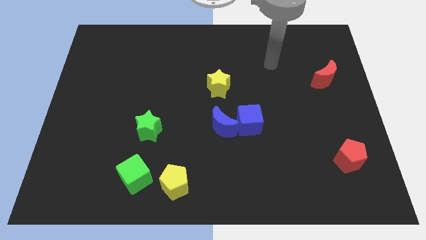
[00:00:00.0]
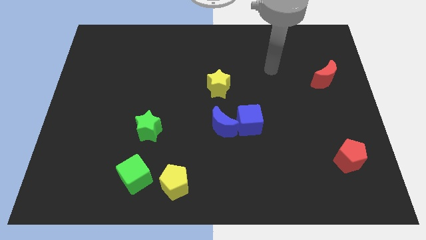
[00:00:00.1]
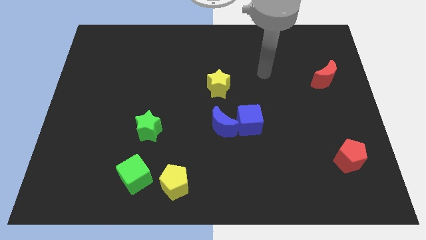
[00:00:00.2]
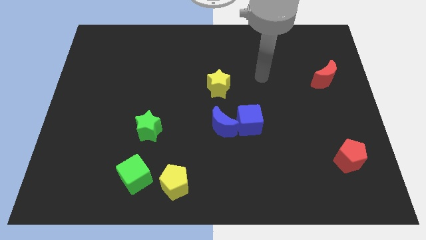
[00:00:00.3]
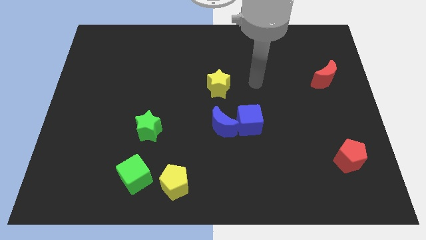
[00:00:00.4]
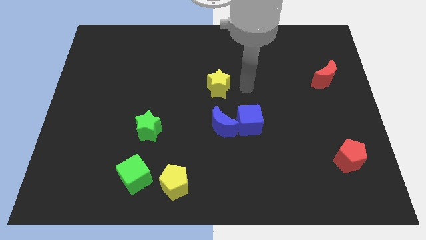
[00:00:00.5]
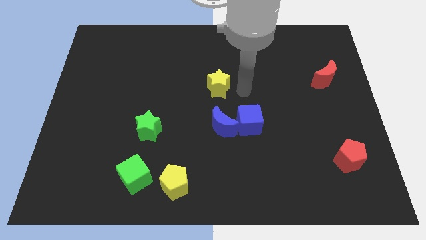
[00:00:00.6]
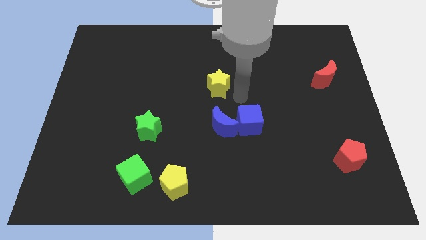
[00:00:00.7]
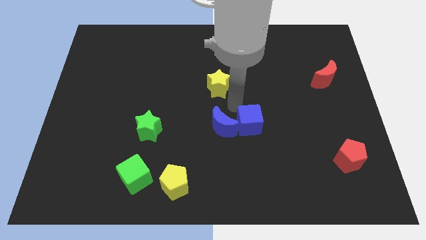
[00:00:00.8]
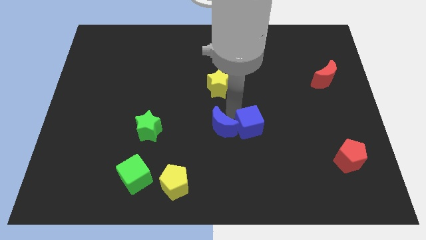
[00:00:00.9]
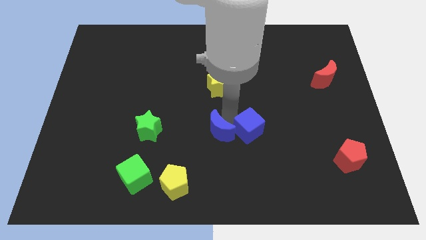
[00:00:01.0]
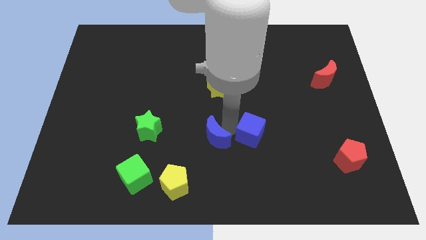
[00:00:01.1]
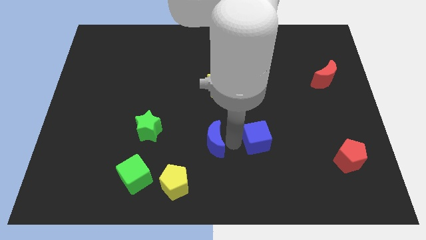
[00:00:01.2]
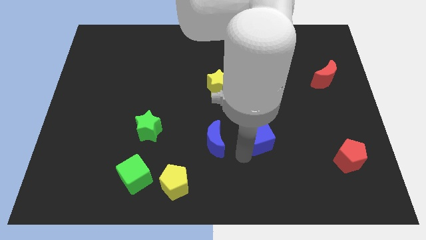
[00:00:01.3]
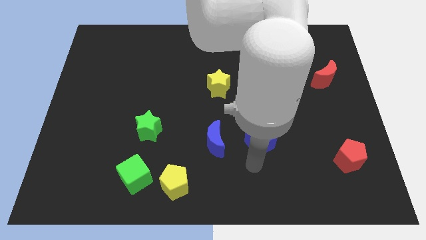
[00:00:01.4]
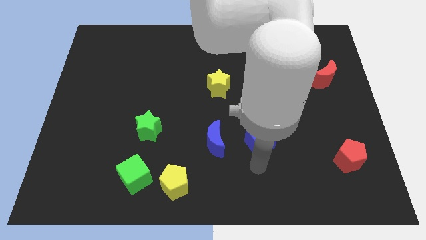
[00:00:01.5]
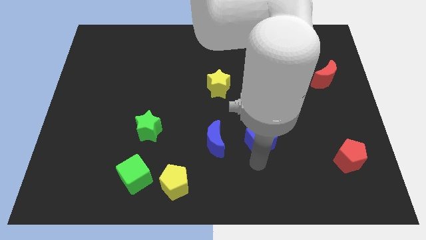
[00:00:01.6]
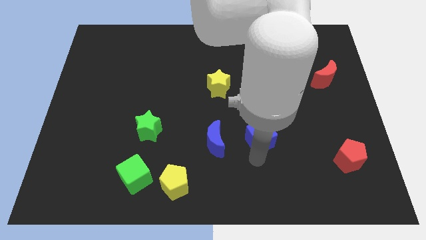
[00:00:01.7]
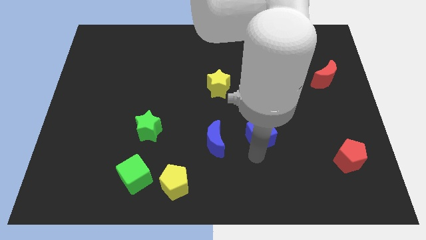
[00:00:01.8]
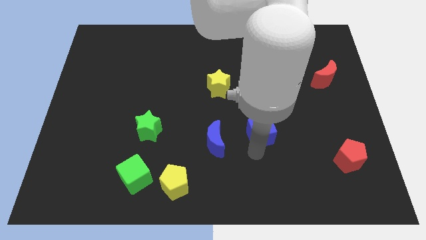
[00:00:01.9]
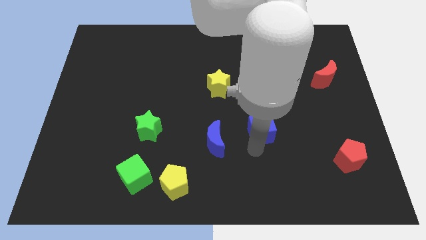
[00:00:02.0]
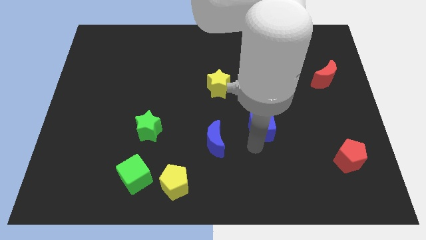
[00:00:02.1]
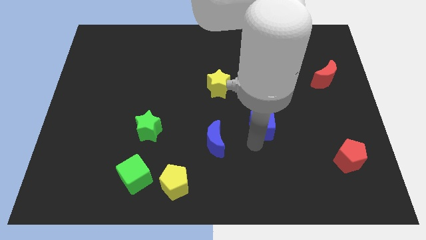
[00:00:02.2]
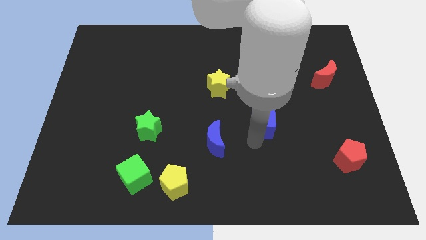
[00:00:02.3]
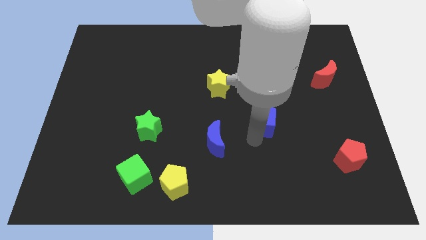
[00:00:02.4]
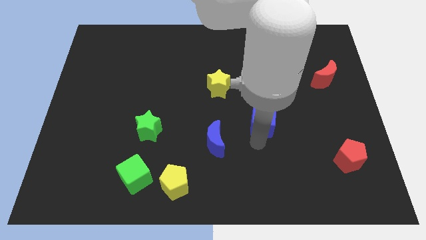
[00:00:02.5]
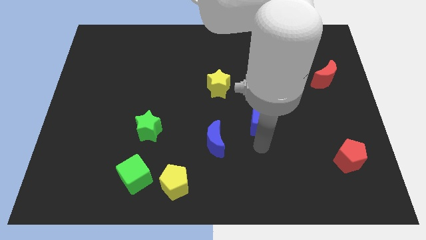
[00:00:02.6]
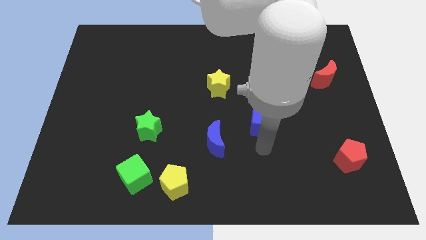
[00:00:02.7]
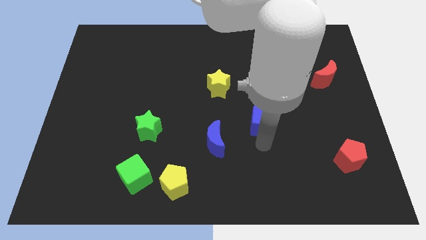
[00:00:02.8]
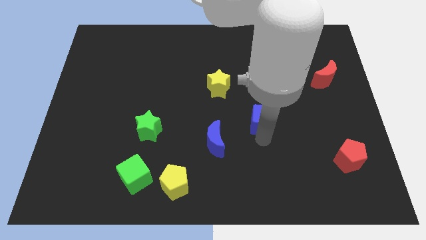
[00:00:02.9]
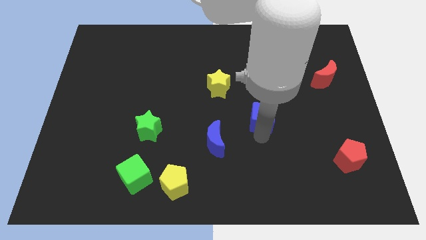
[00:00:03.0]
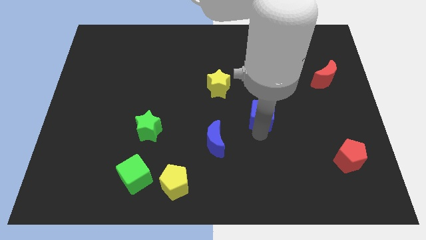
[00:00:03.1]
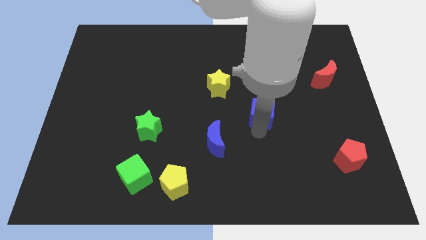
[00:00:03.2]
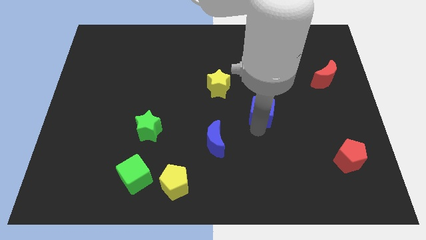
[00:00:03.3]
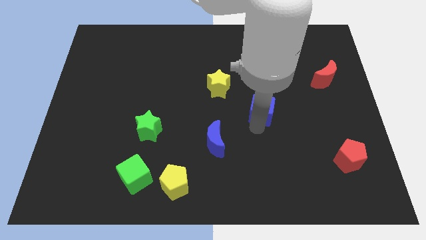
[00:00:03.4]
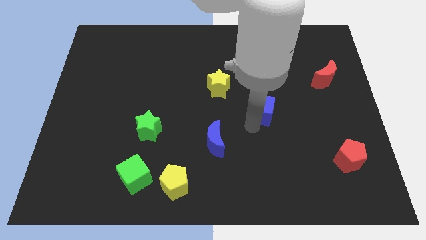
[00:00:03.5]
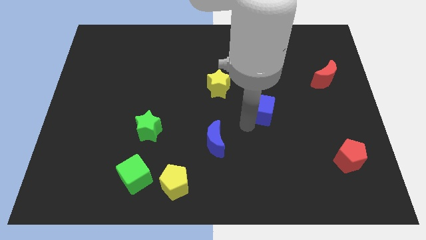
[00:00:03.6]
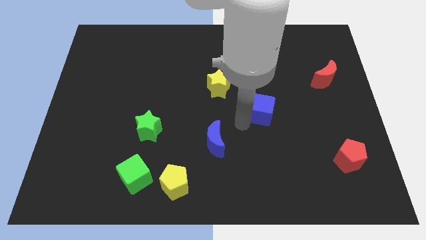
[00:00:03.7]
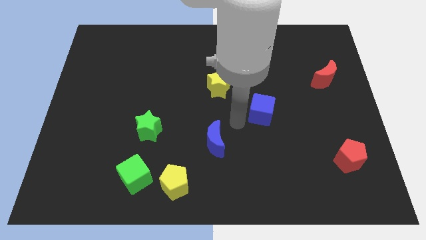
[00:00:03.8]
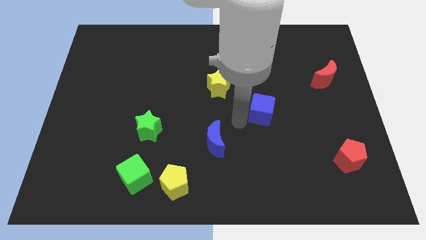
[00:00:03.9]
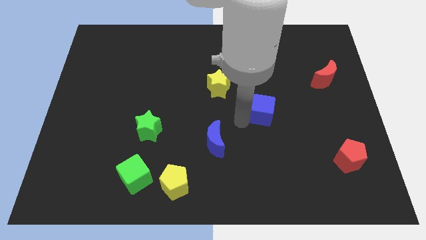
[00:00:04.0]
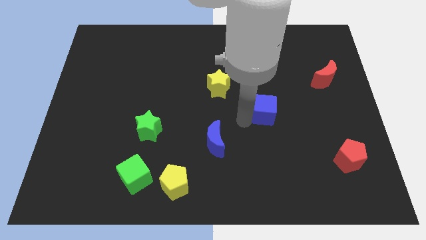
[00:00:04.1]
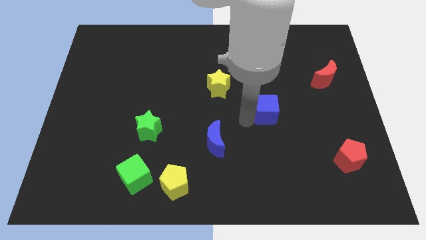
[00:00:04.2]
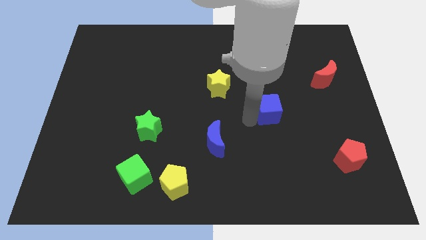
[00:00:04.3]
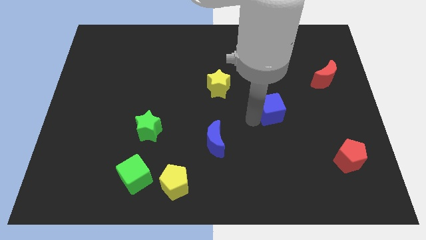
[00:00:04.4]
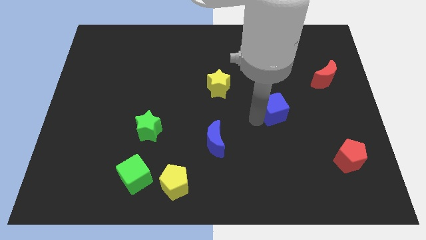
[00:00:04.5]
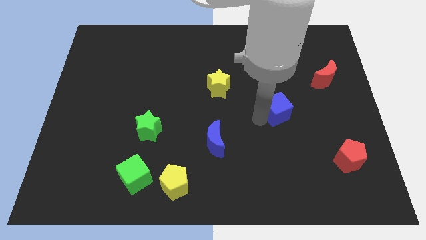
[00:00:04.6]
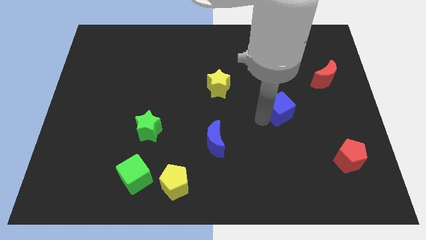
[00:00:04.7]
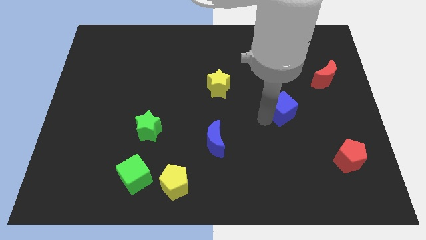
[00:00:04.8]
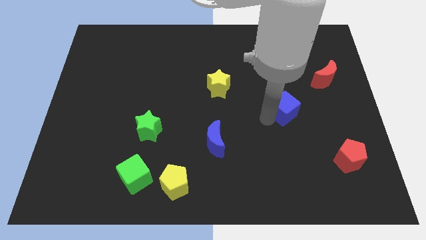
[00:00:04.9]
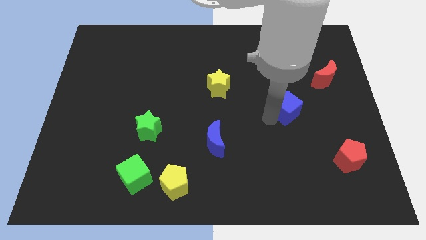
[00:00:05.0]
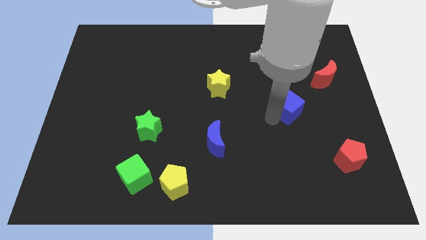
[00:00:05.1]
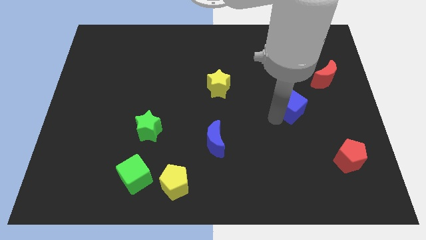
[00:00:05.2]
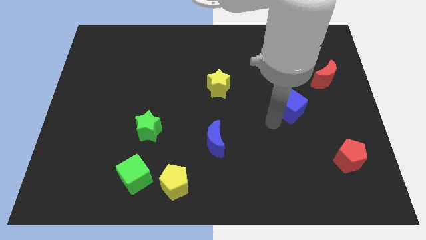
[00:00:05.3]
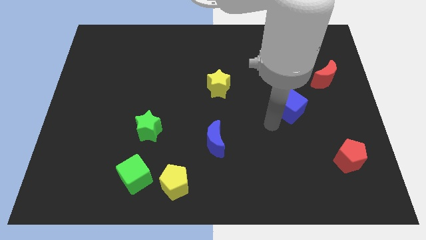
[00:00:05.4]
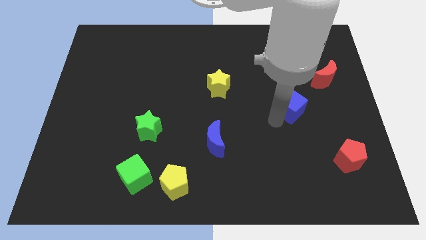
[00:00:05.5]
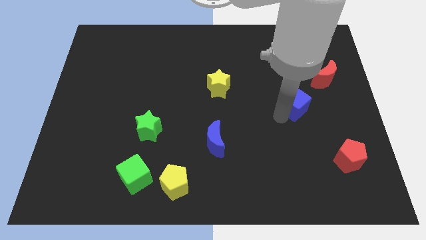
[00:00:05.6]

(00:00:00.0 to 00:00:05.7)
slide the blue cube to the bottom left side of the red moon

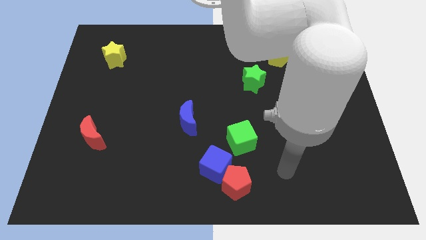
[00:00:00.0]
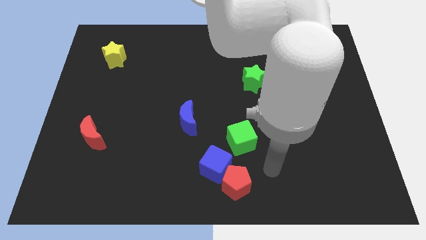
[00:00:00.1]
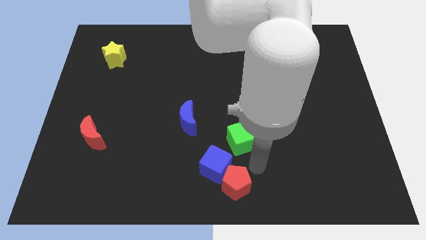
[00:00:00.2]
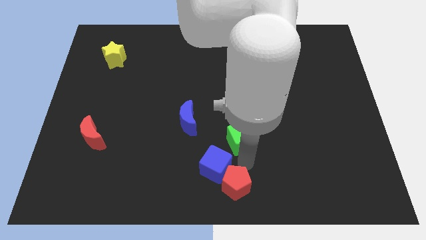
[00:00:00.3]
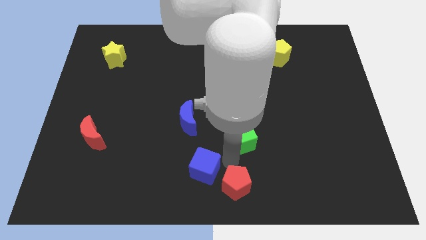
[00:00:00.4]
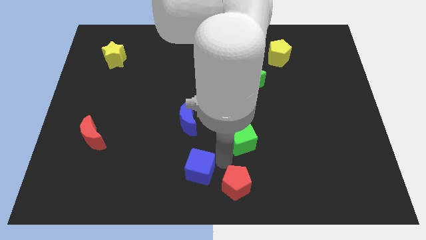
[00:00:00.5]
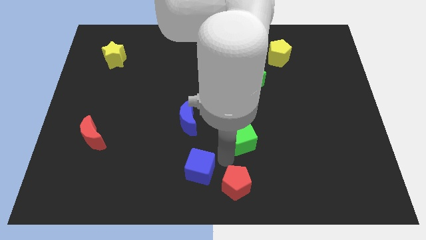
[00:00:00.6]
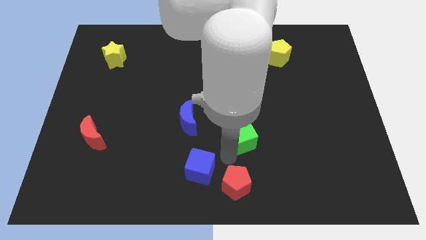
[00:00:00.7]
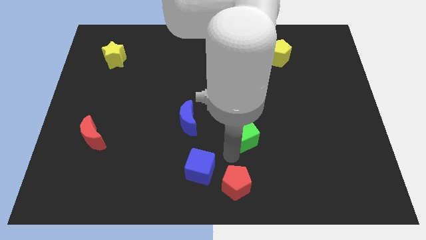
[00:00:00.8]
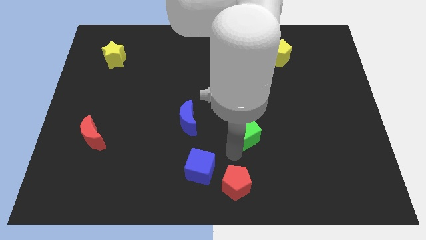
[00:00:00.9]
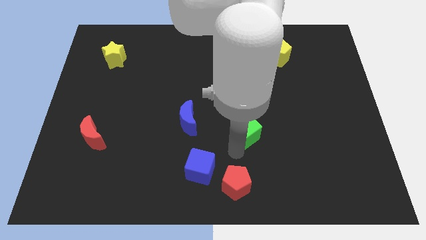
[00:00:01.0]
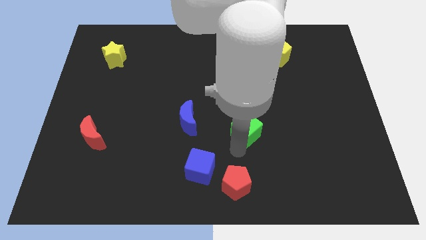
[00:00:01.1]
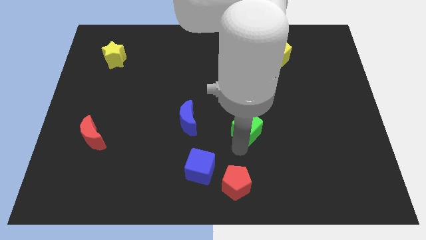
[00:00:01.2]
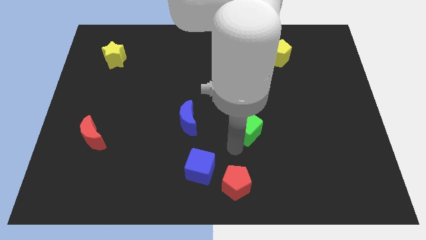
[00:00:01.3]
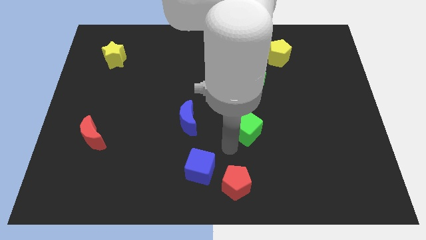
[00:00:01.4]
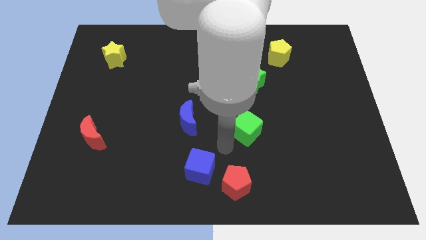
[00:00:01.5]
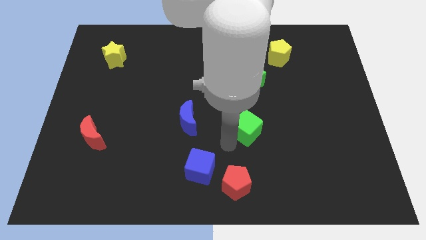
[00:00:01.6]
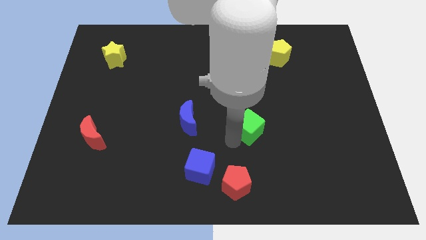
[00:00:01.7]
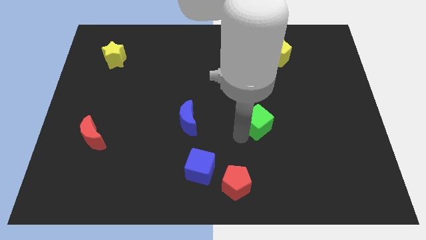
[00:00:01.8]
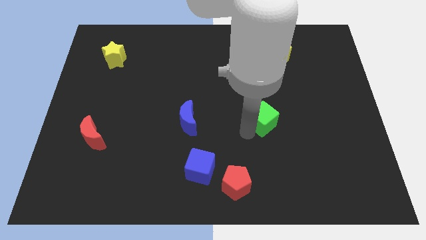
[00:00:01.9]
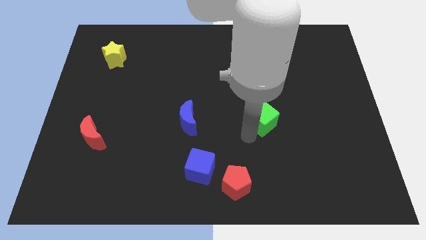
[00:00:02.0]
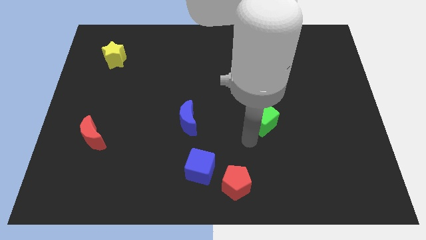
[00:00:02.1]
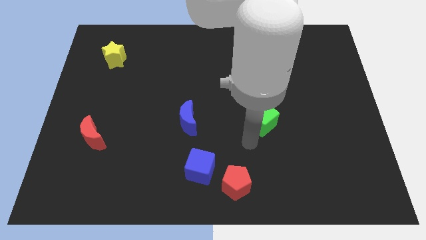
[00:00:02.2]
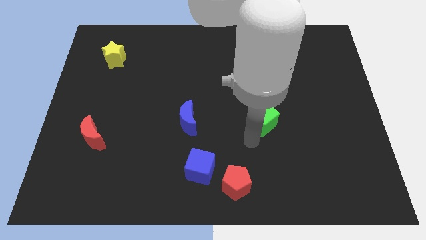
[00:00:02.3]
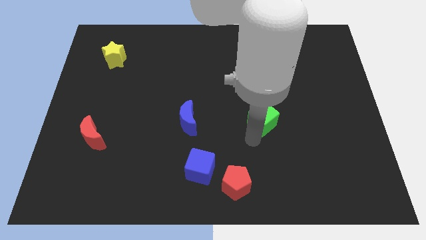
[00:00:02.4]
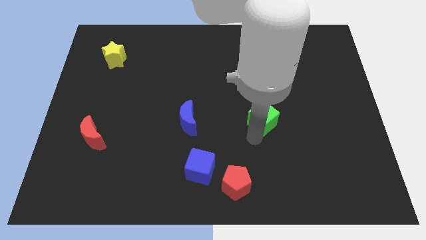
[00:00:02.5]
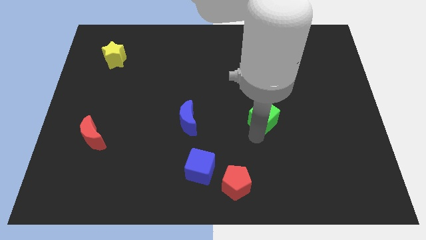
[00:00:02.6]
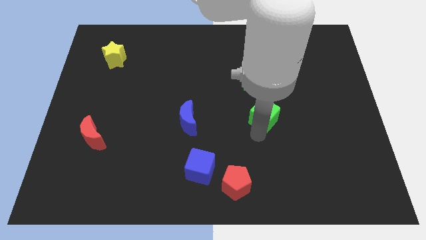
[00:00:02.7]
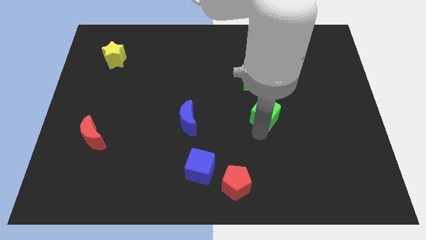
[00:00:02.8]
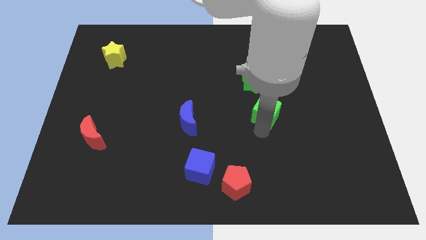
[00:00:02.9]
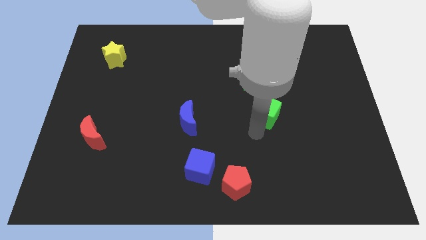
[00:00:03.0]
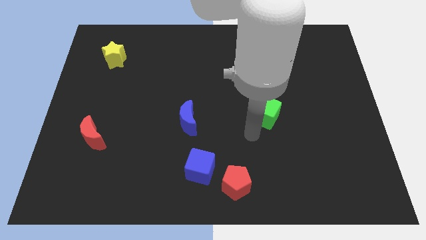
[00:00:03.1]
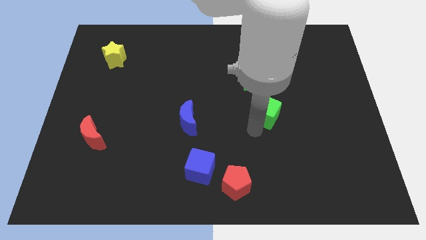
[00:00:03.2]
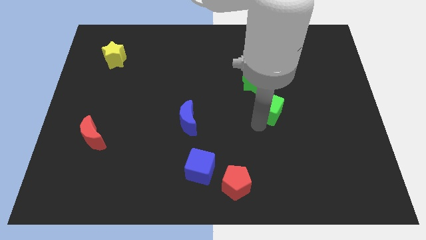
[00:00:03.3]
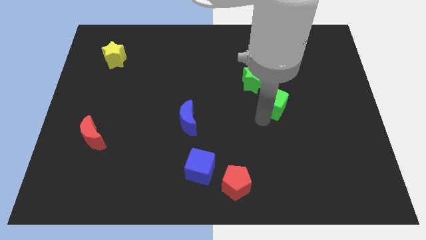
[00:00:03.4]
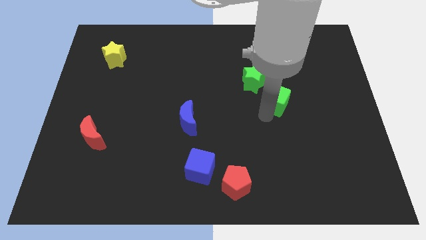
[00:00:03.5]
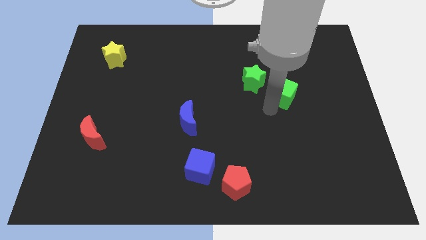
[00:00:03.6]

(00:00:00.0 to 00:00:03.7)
slide the green cube right of the green star
